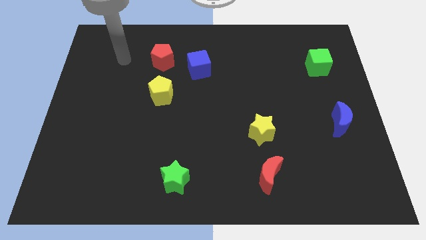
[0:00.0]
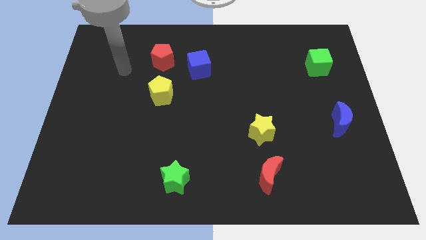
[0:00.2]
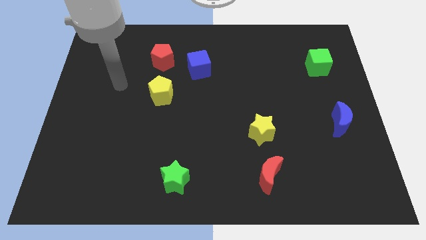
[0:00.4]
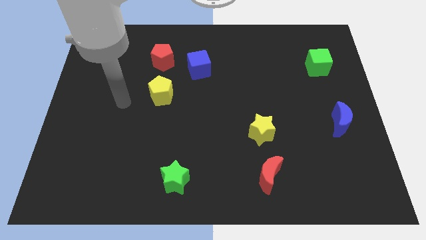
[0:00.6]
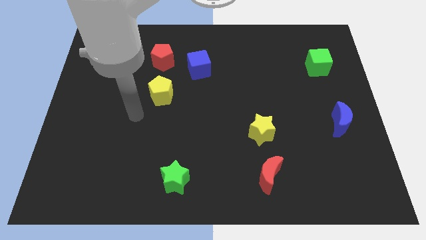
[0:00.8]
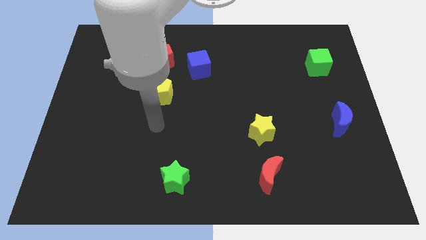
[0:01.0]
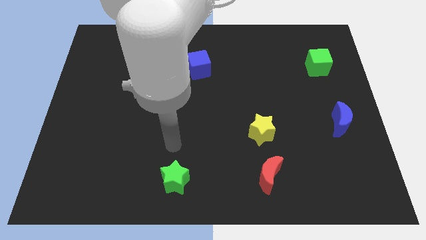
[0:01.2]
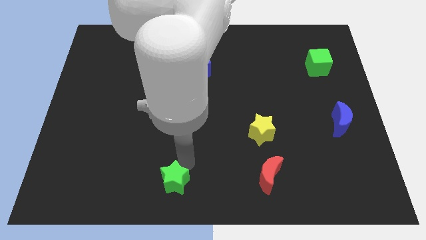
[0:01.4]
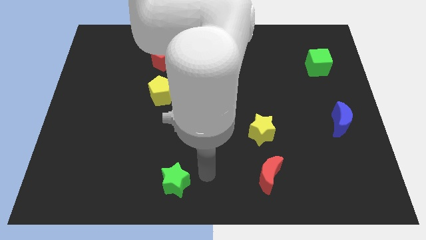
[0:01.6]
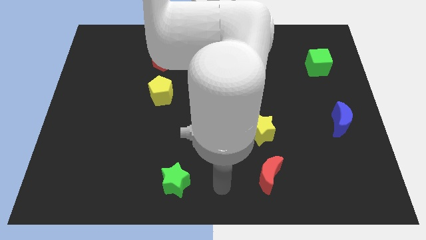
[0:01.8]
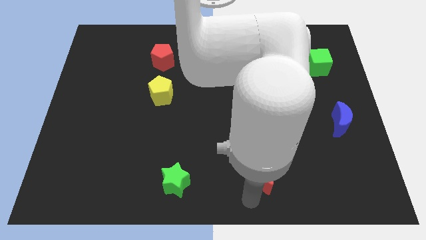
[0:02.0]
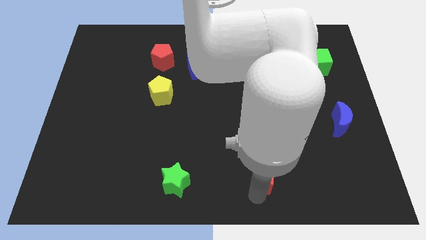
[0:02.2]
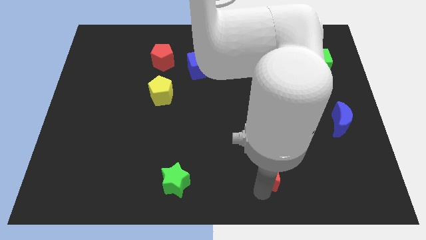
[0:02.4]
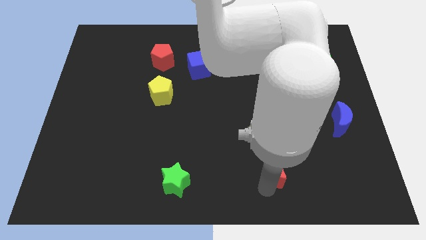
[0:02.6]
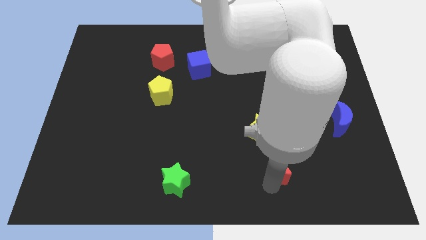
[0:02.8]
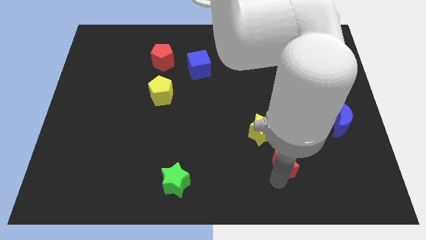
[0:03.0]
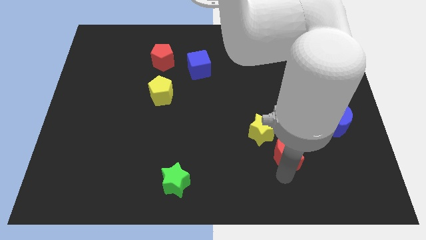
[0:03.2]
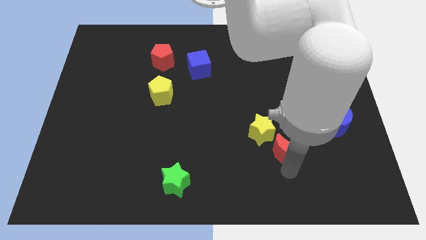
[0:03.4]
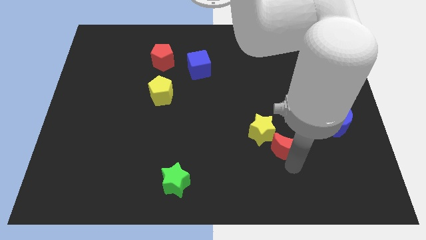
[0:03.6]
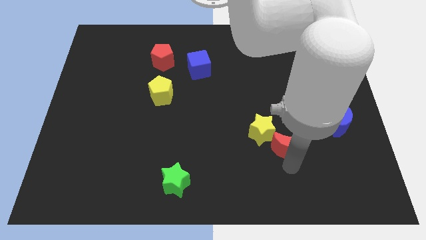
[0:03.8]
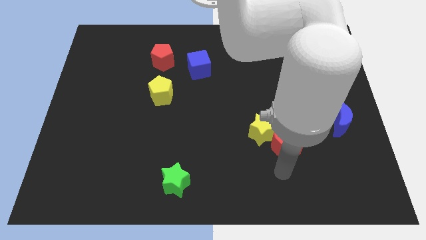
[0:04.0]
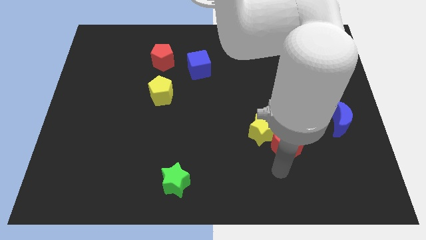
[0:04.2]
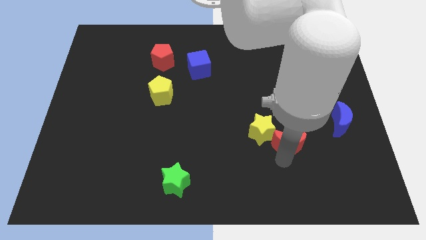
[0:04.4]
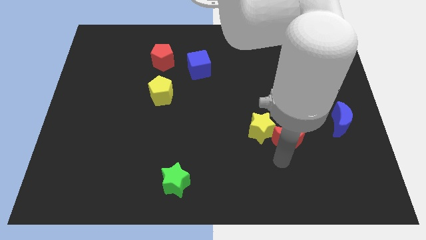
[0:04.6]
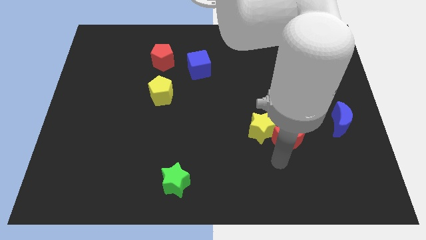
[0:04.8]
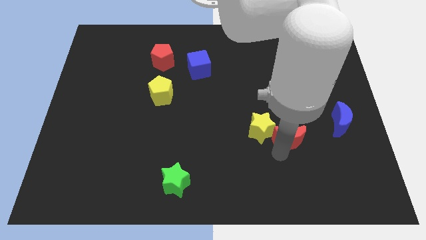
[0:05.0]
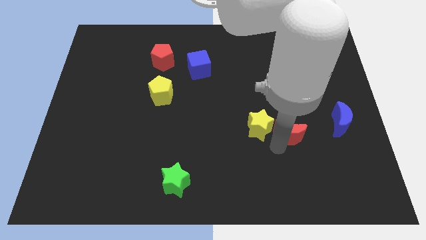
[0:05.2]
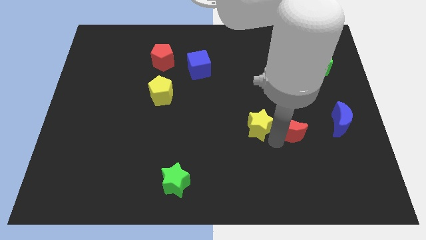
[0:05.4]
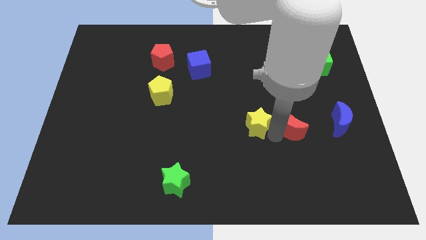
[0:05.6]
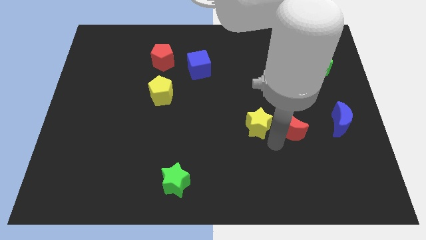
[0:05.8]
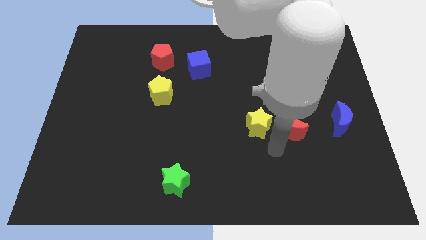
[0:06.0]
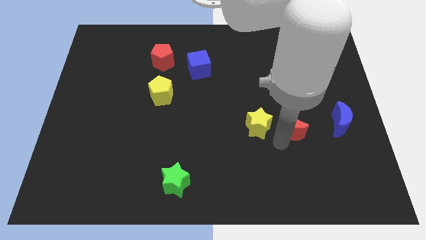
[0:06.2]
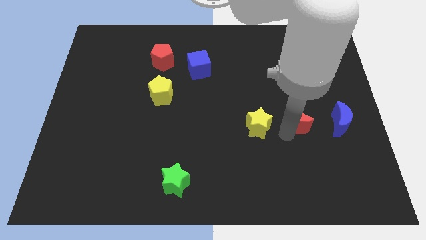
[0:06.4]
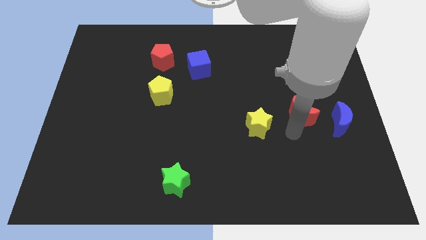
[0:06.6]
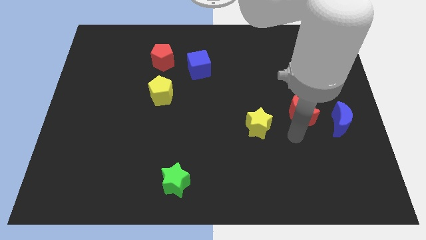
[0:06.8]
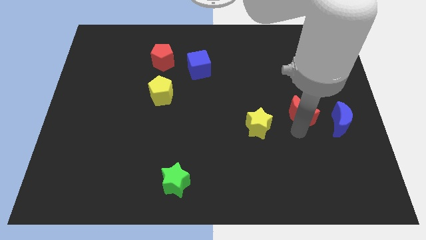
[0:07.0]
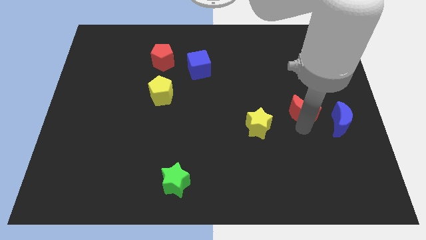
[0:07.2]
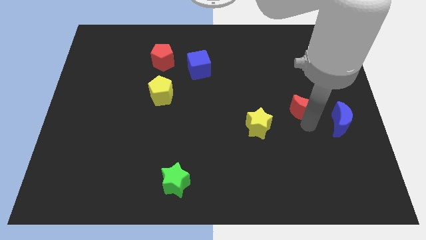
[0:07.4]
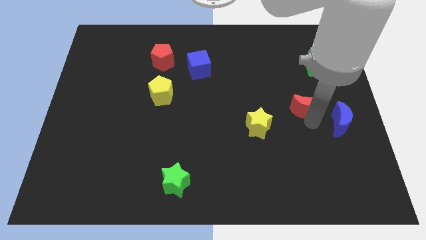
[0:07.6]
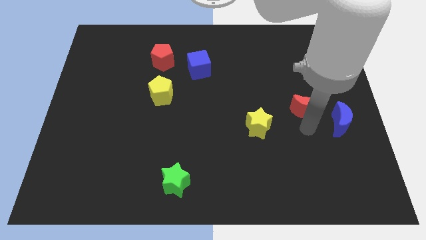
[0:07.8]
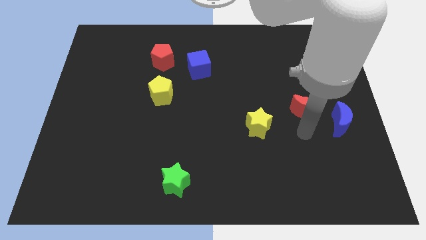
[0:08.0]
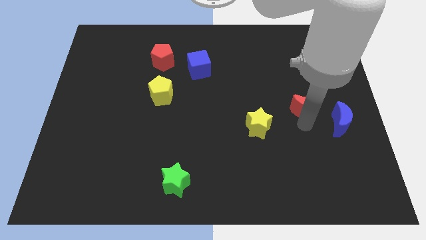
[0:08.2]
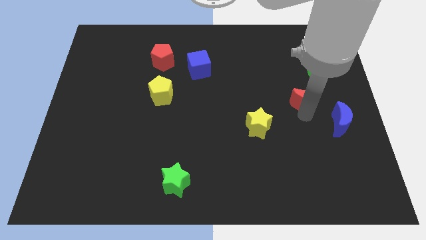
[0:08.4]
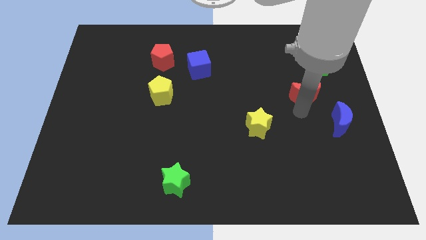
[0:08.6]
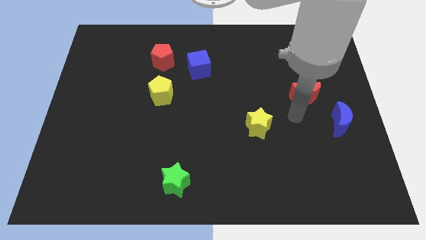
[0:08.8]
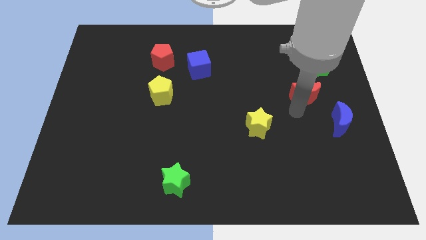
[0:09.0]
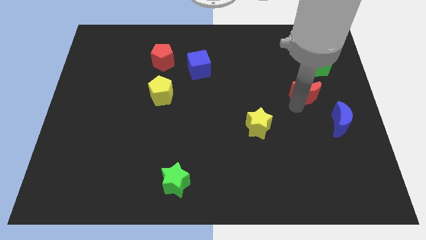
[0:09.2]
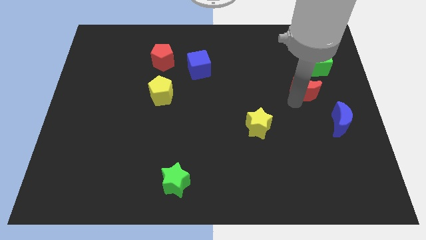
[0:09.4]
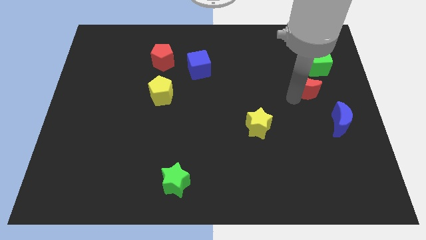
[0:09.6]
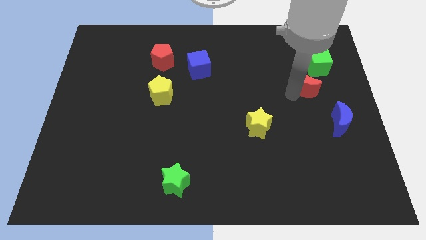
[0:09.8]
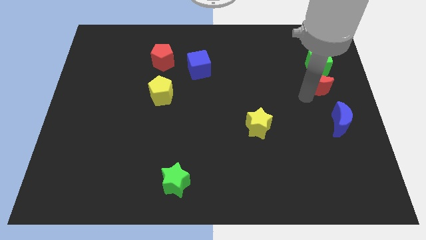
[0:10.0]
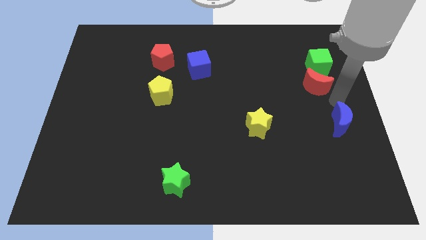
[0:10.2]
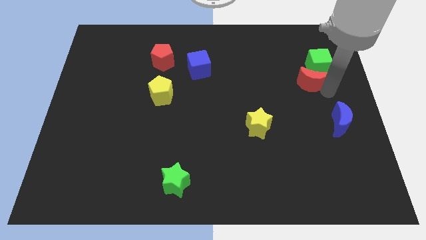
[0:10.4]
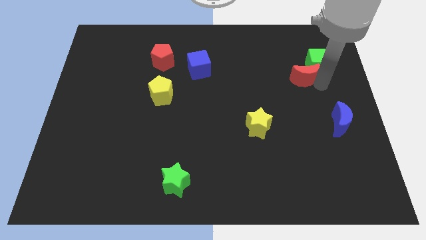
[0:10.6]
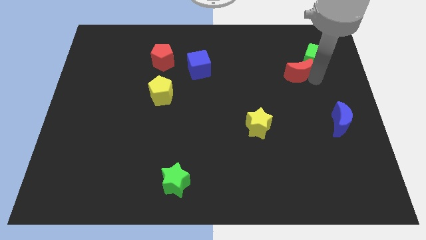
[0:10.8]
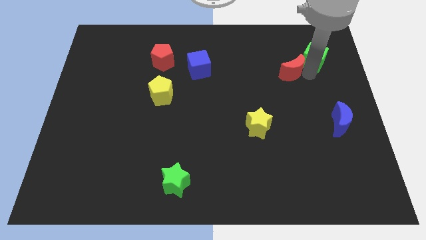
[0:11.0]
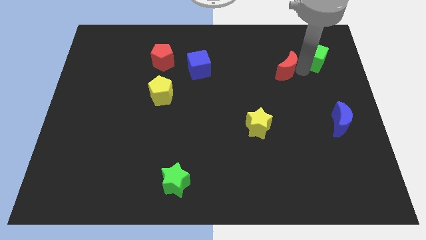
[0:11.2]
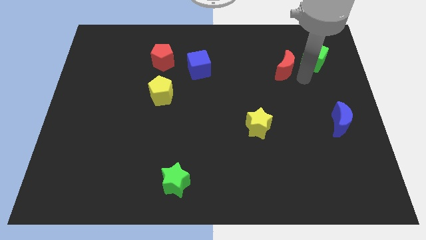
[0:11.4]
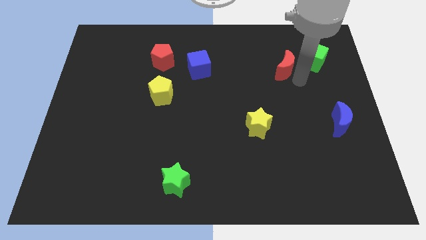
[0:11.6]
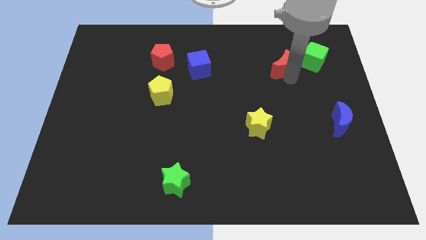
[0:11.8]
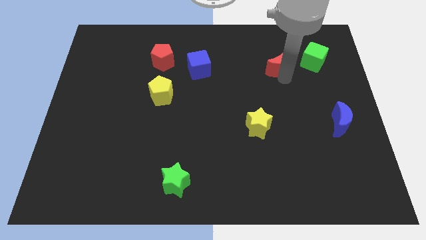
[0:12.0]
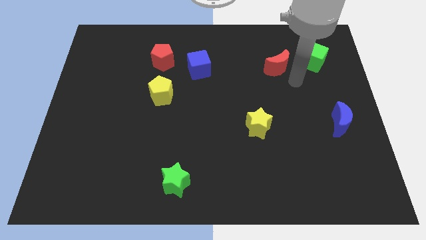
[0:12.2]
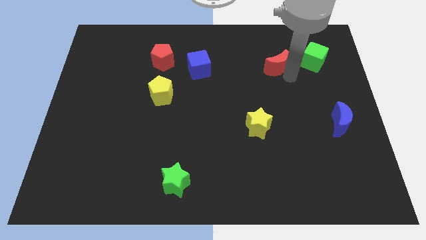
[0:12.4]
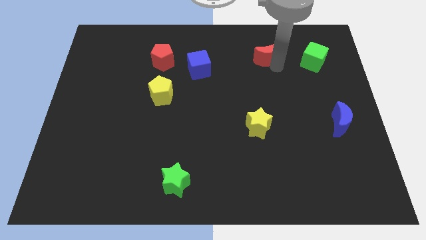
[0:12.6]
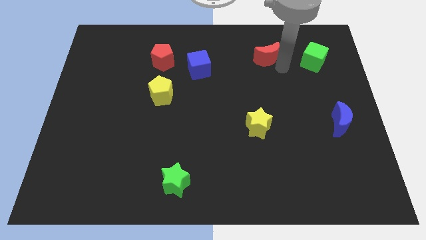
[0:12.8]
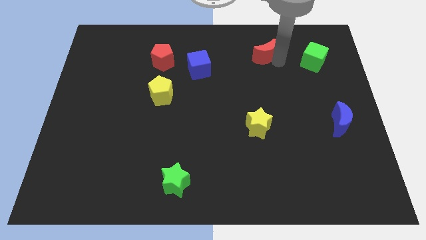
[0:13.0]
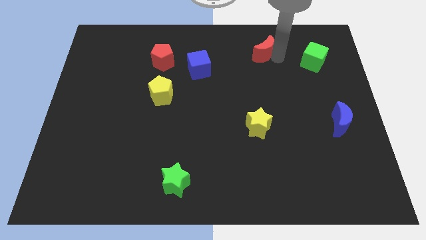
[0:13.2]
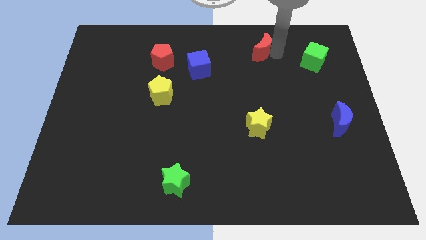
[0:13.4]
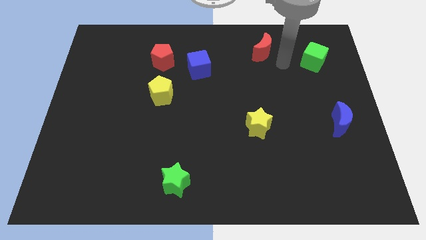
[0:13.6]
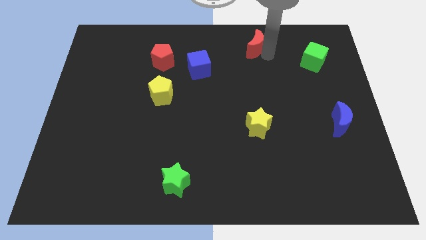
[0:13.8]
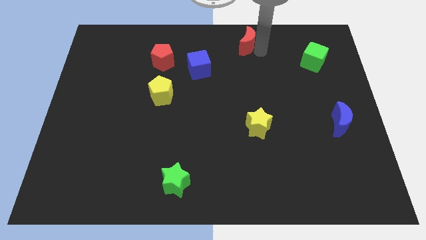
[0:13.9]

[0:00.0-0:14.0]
put the red moon to the towards your base
